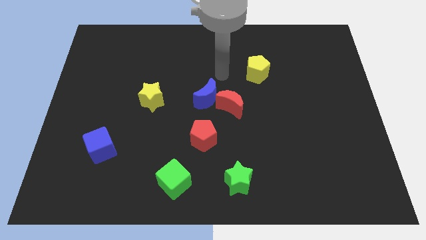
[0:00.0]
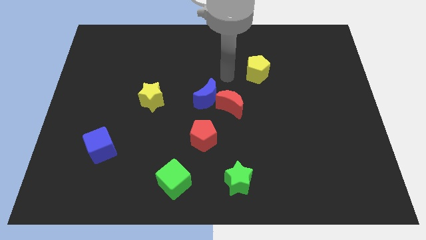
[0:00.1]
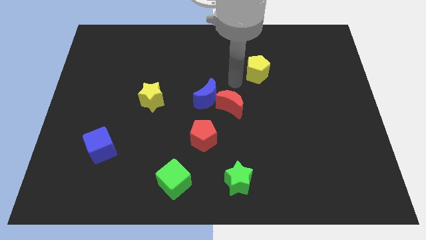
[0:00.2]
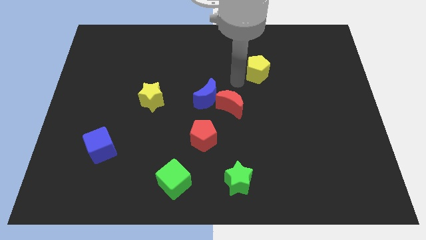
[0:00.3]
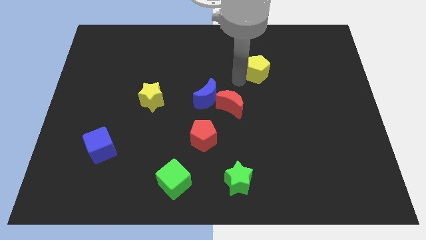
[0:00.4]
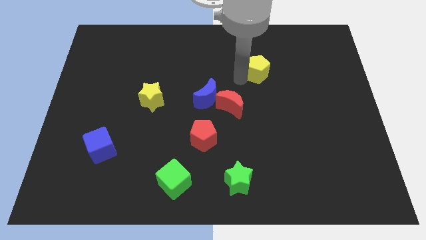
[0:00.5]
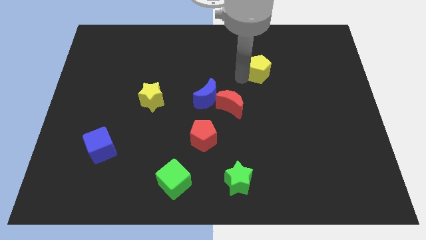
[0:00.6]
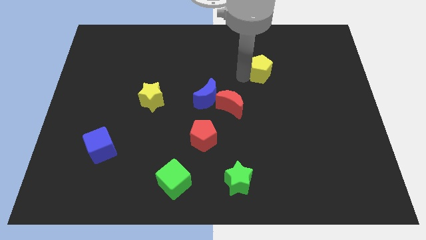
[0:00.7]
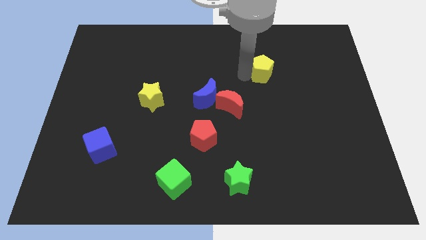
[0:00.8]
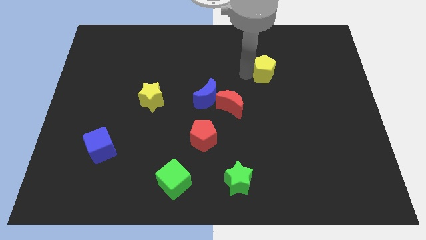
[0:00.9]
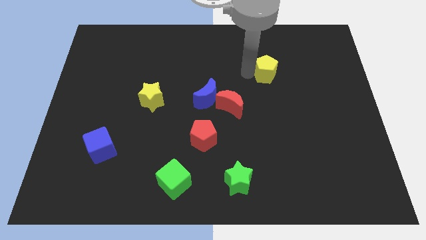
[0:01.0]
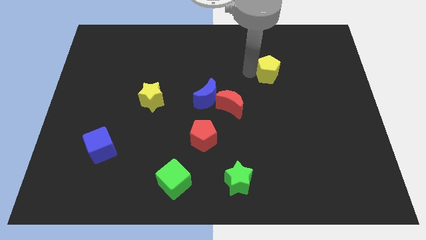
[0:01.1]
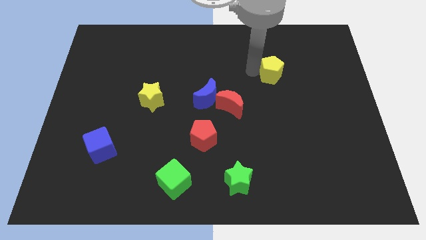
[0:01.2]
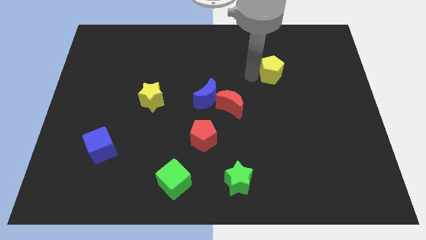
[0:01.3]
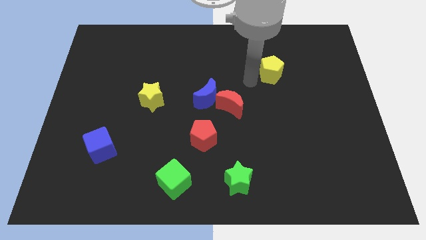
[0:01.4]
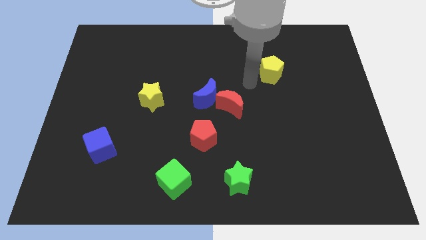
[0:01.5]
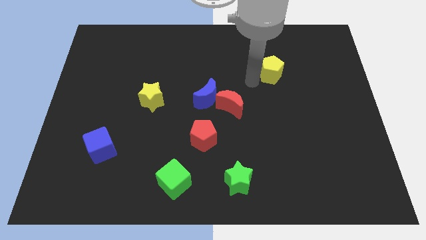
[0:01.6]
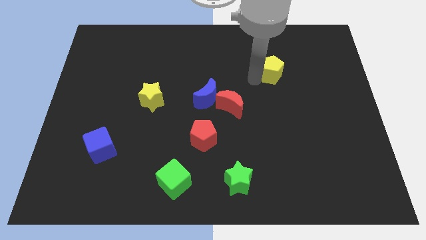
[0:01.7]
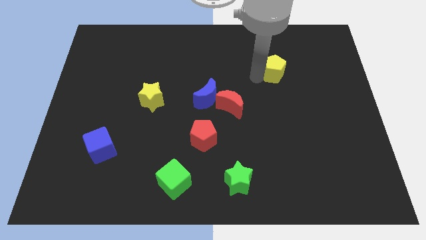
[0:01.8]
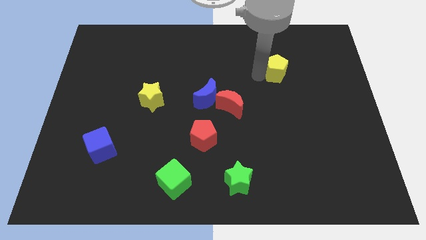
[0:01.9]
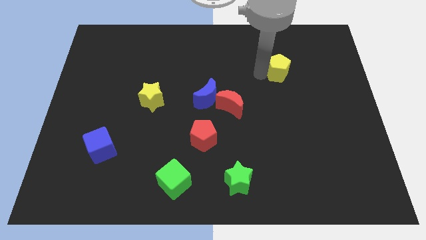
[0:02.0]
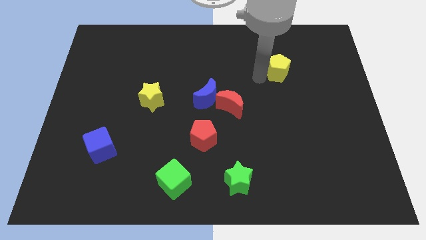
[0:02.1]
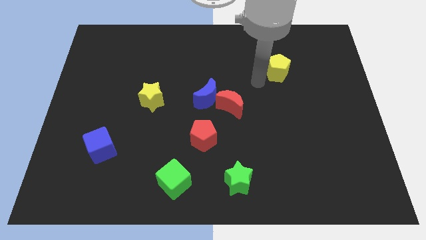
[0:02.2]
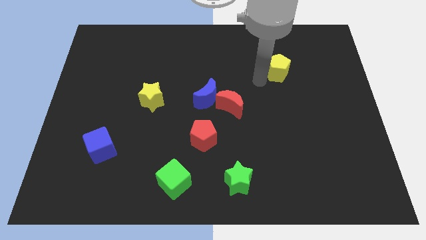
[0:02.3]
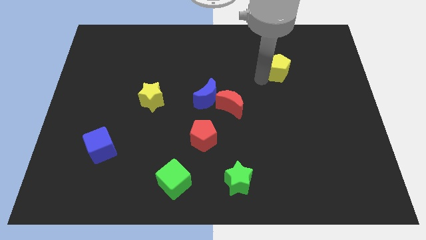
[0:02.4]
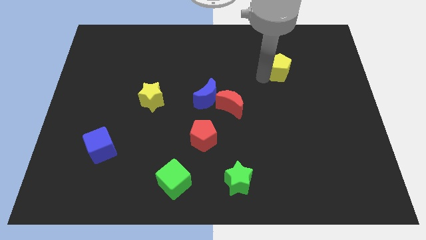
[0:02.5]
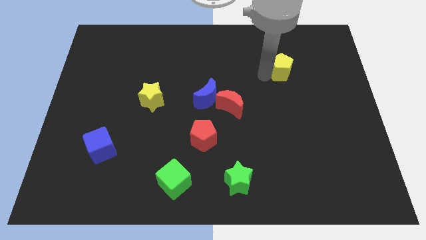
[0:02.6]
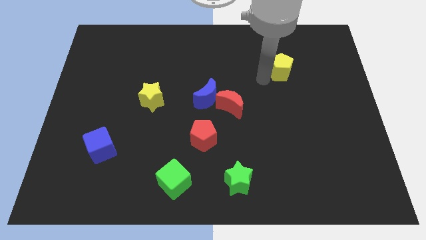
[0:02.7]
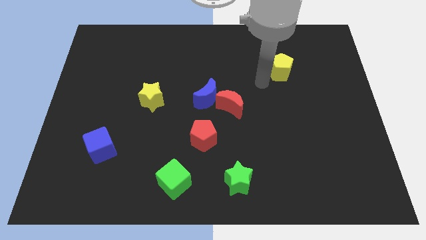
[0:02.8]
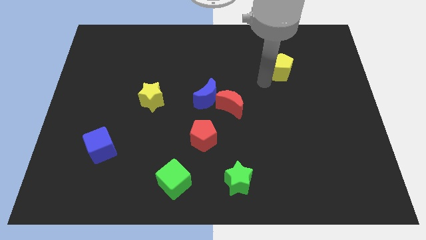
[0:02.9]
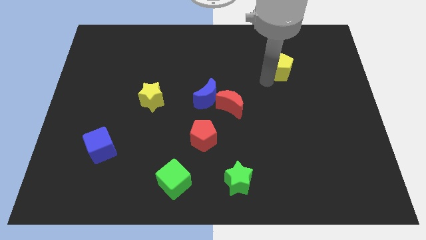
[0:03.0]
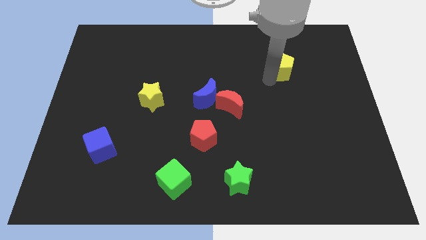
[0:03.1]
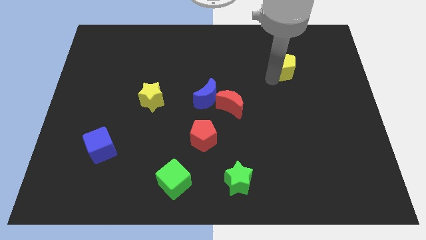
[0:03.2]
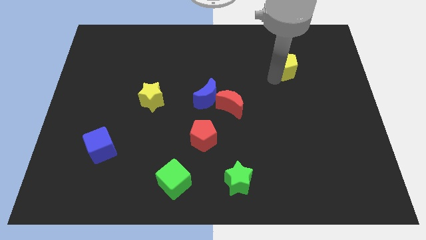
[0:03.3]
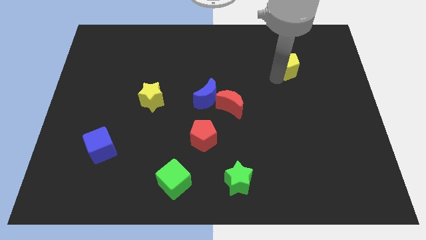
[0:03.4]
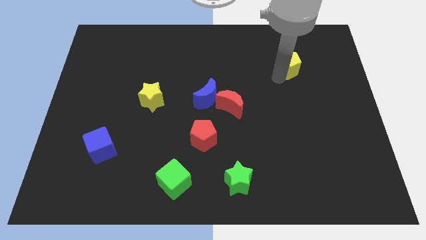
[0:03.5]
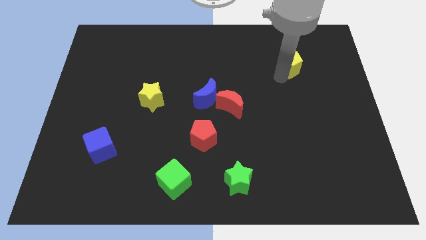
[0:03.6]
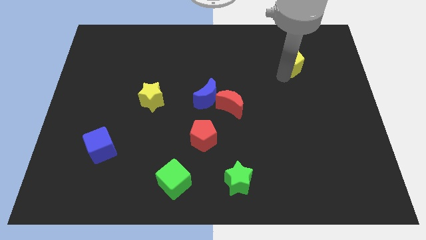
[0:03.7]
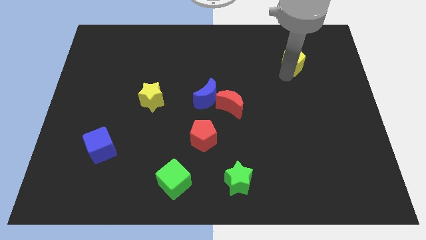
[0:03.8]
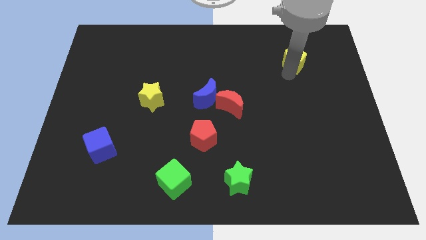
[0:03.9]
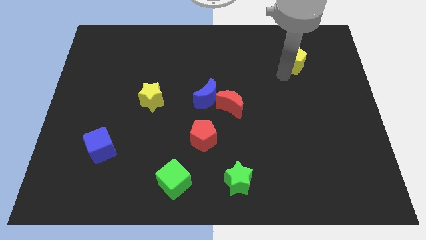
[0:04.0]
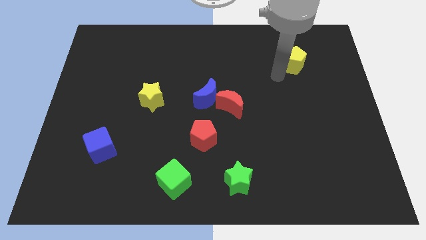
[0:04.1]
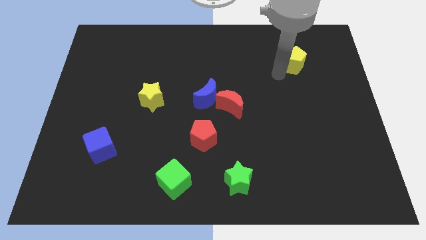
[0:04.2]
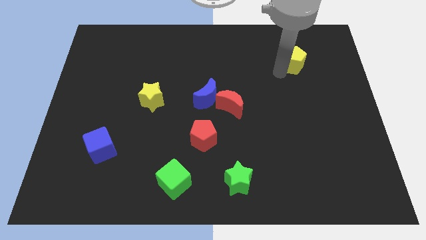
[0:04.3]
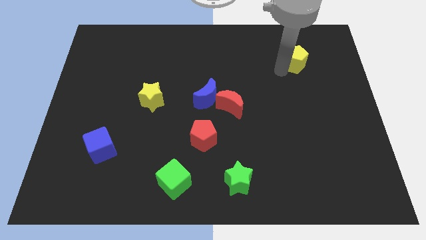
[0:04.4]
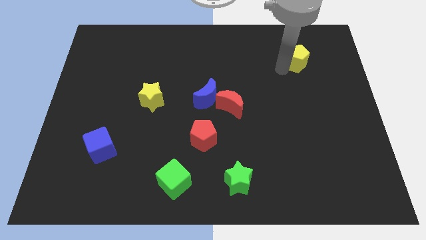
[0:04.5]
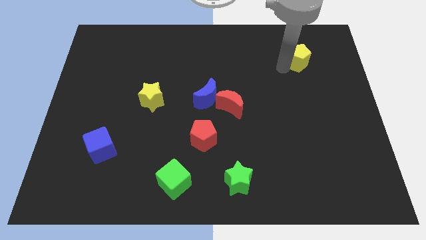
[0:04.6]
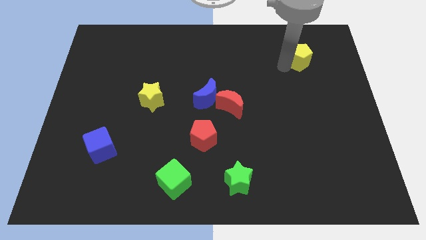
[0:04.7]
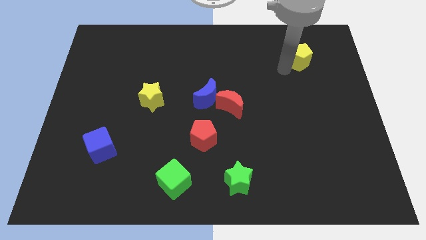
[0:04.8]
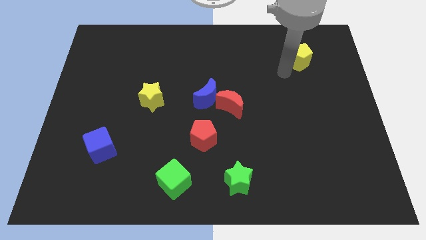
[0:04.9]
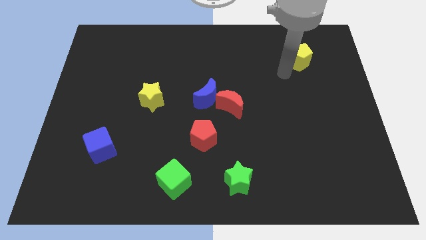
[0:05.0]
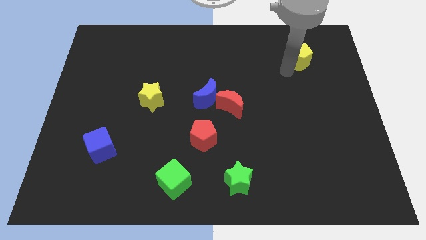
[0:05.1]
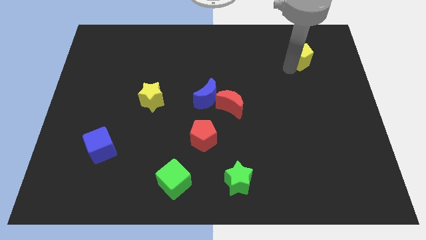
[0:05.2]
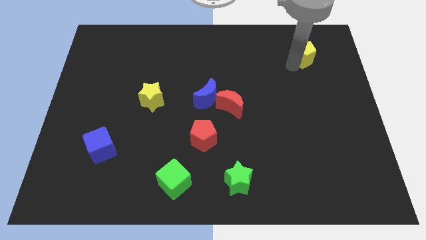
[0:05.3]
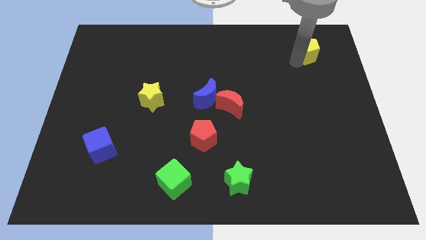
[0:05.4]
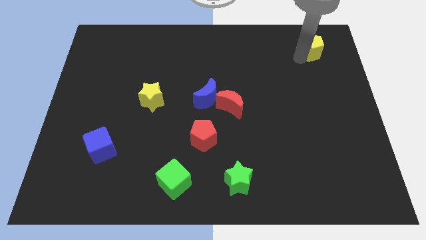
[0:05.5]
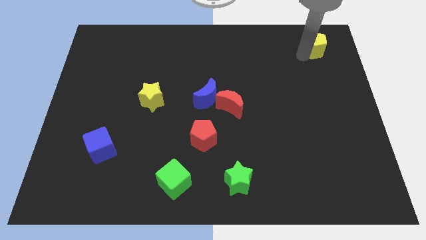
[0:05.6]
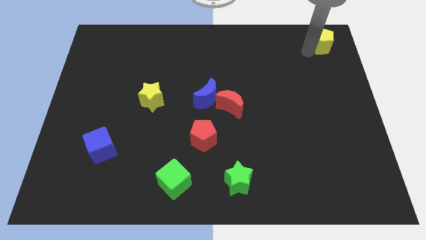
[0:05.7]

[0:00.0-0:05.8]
move the yellow pentagon to the top right corner
